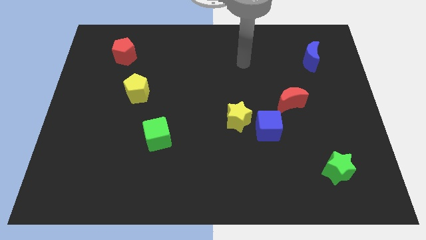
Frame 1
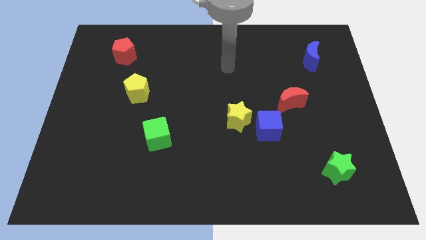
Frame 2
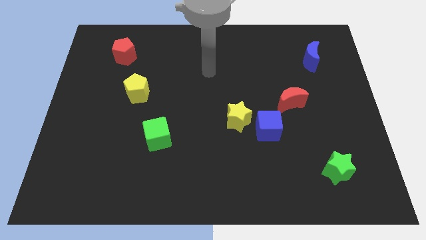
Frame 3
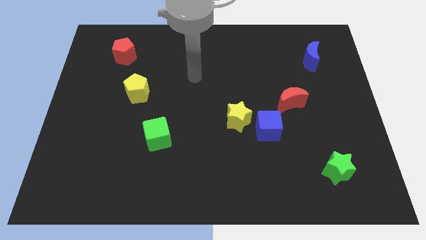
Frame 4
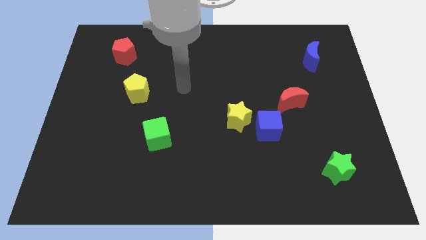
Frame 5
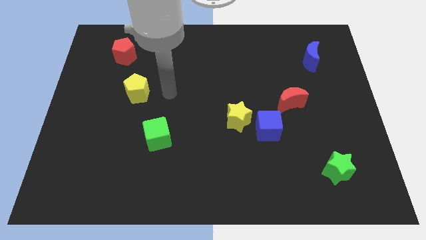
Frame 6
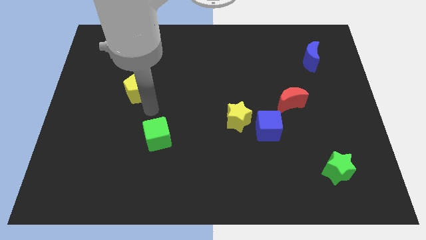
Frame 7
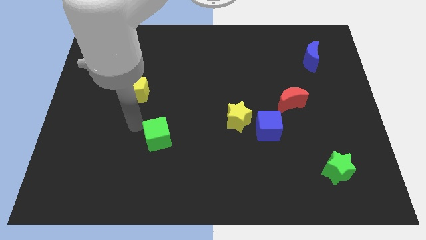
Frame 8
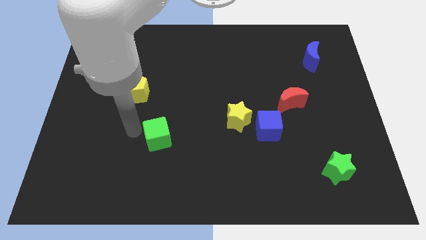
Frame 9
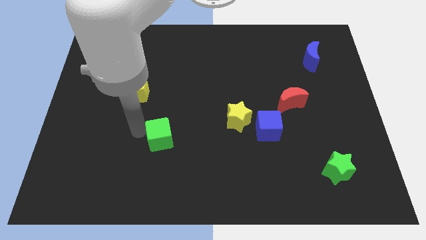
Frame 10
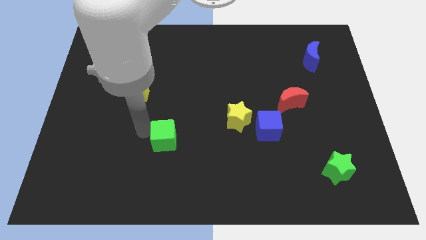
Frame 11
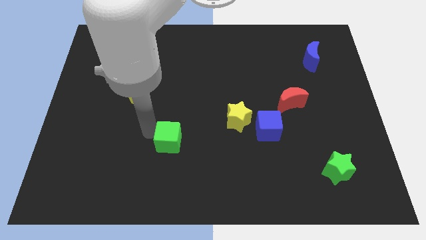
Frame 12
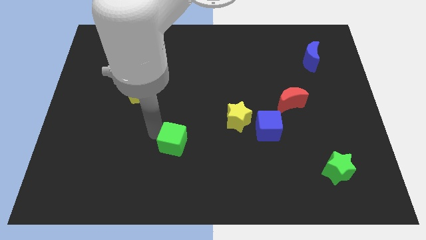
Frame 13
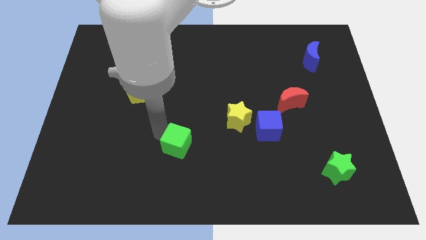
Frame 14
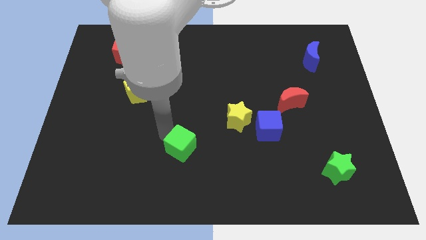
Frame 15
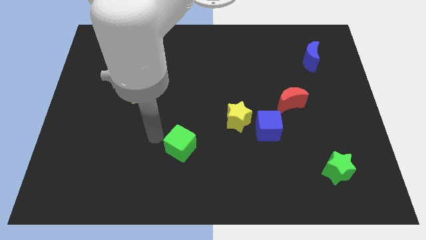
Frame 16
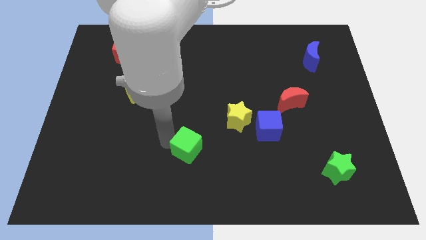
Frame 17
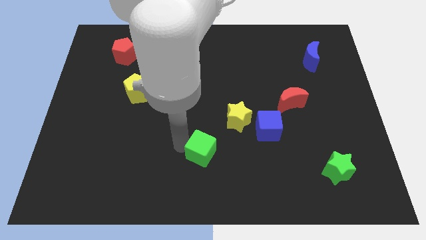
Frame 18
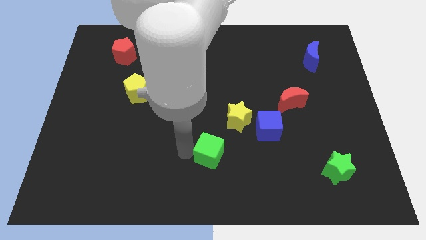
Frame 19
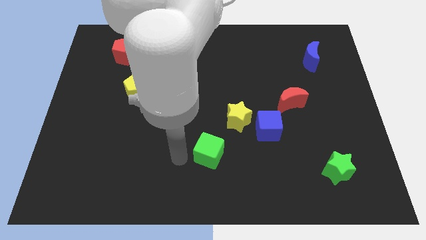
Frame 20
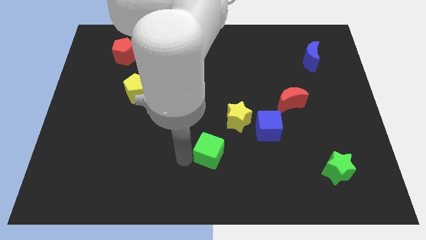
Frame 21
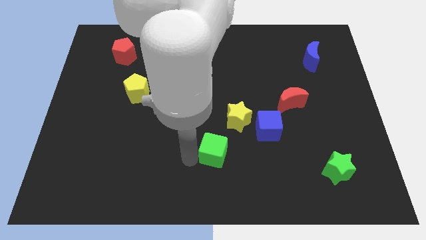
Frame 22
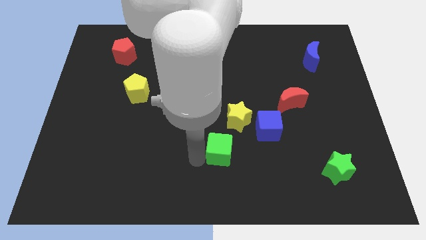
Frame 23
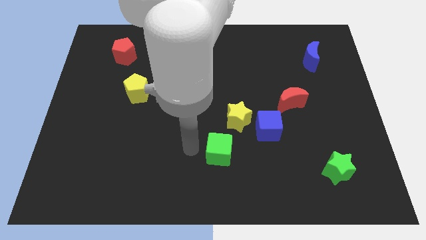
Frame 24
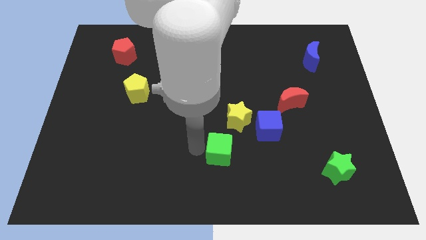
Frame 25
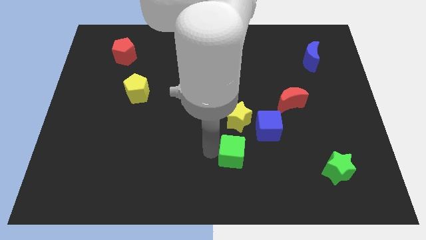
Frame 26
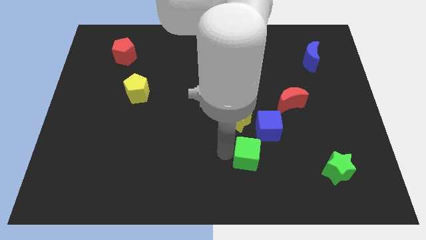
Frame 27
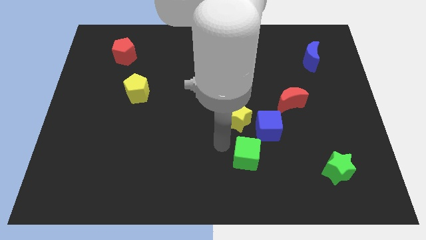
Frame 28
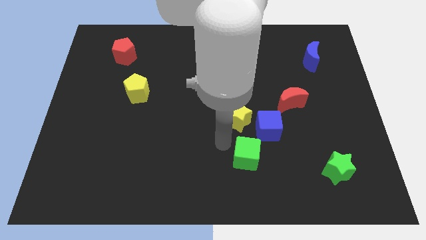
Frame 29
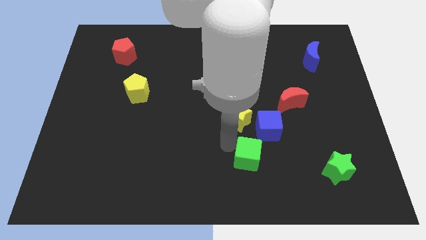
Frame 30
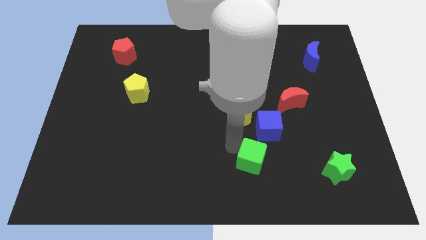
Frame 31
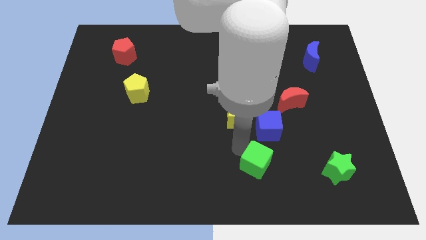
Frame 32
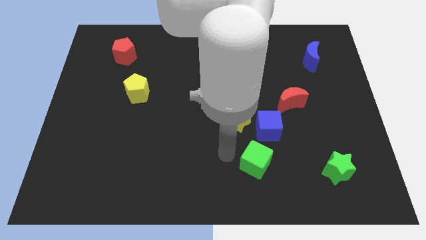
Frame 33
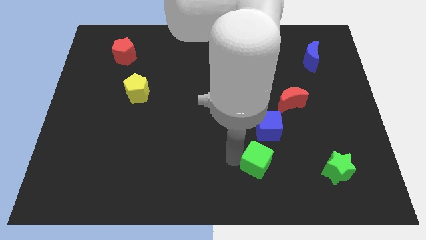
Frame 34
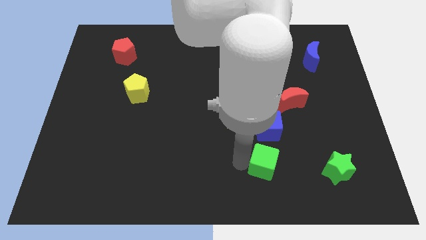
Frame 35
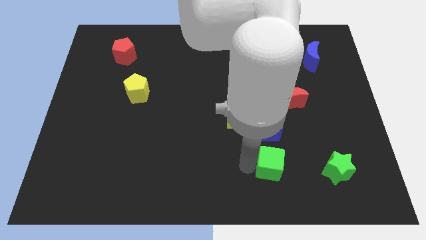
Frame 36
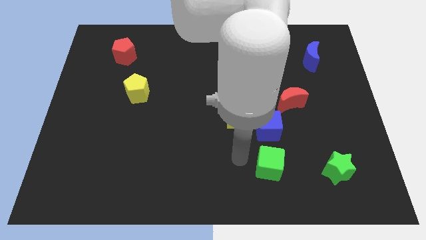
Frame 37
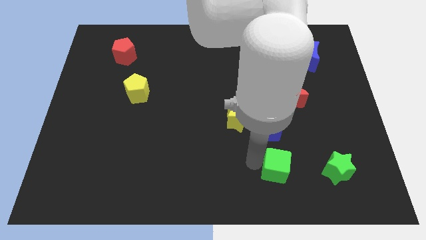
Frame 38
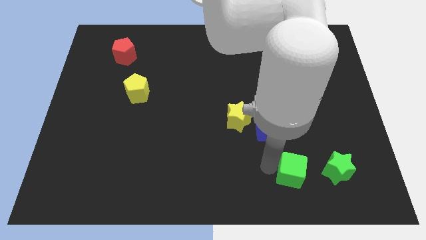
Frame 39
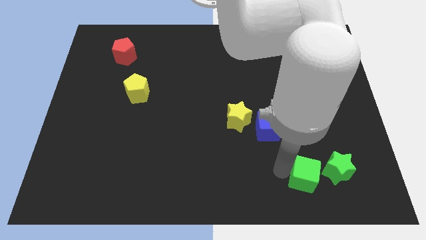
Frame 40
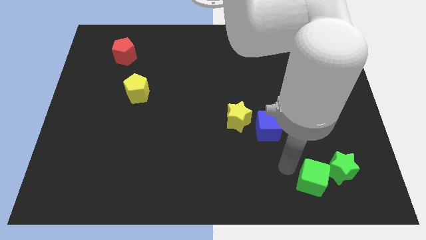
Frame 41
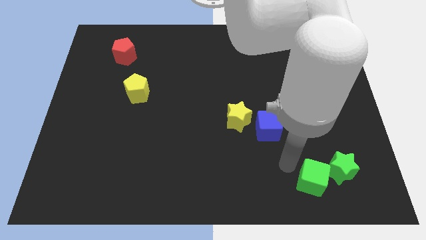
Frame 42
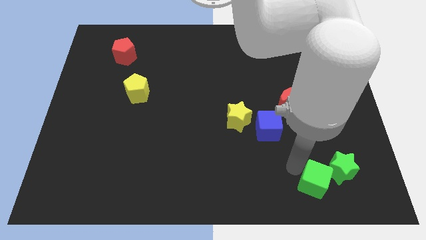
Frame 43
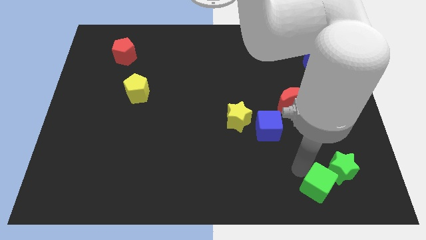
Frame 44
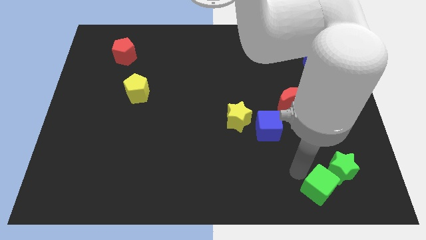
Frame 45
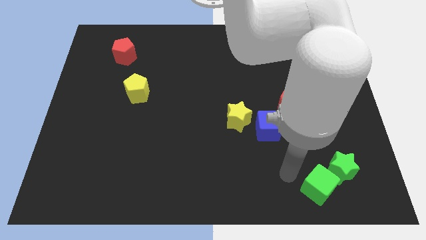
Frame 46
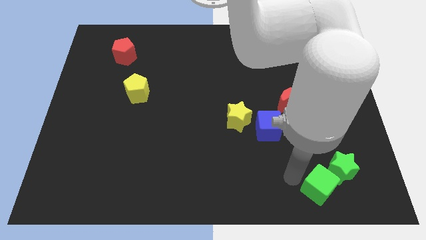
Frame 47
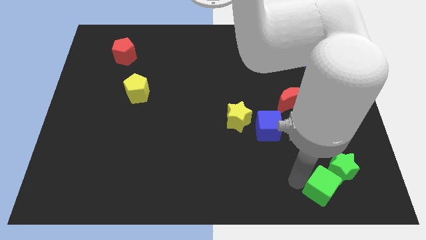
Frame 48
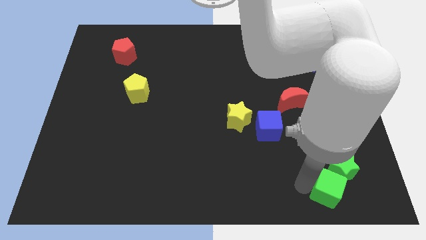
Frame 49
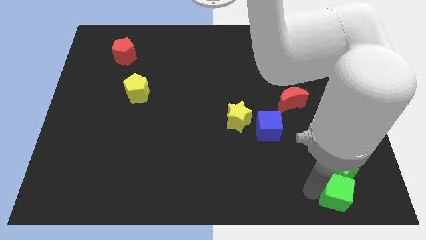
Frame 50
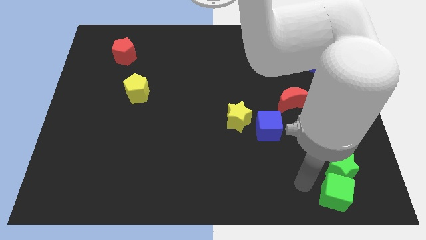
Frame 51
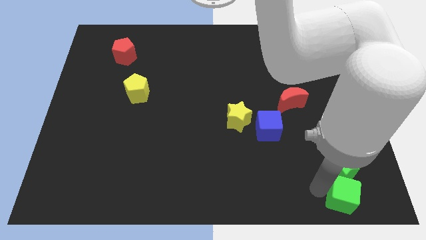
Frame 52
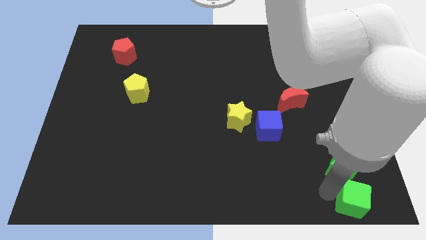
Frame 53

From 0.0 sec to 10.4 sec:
put the green cube to the lower right corner
